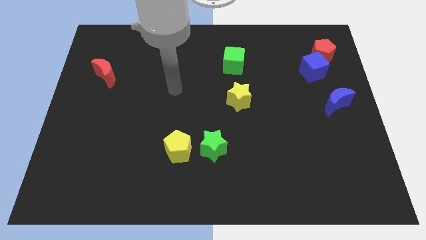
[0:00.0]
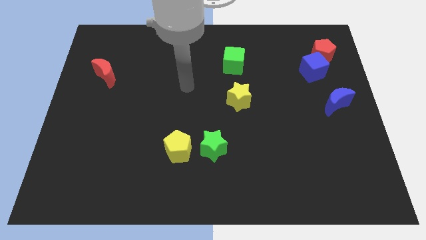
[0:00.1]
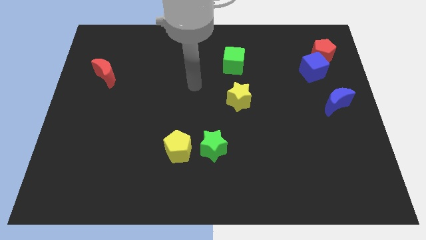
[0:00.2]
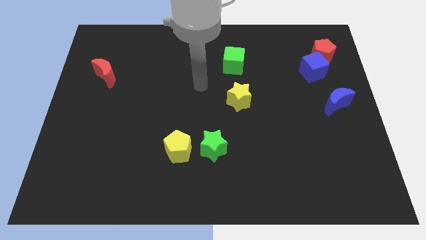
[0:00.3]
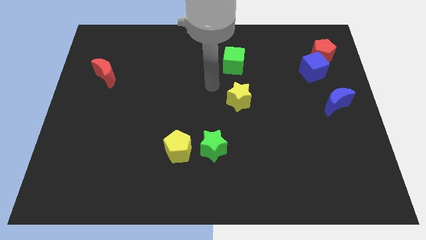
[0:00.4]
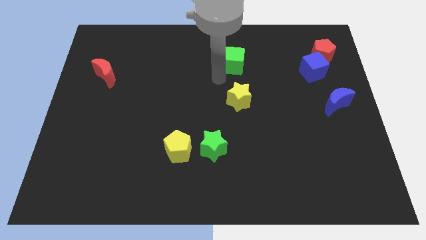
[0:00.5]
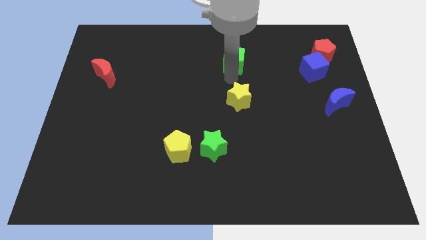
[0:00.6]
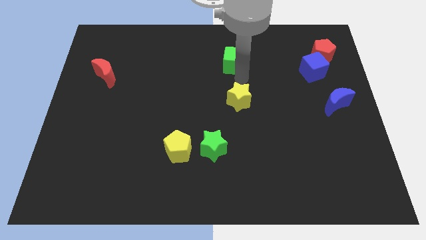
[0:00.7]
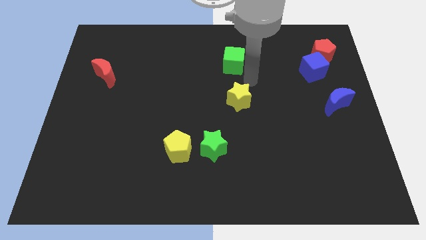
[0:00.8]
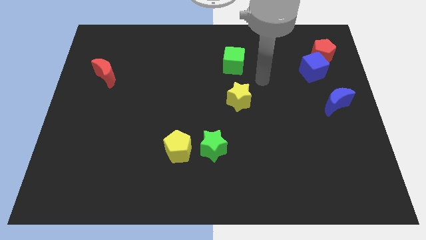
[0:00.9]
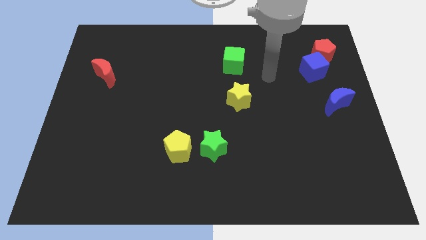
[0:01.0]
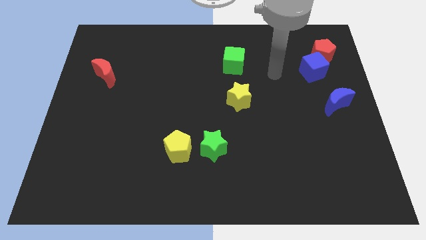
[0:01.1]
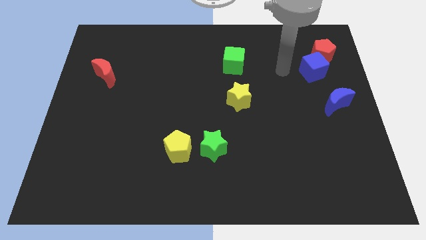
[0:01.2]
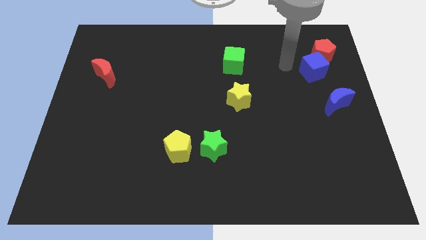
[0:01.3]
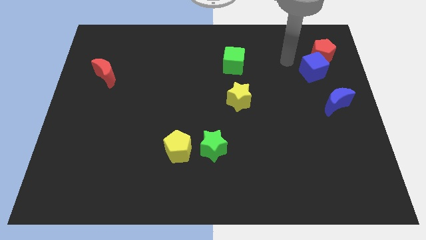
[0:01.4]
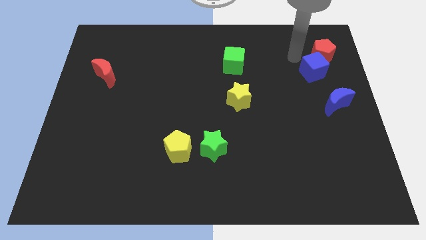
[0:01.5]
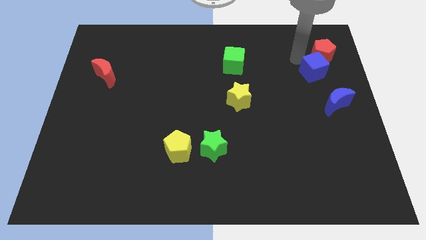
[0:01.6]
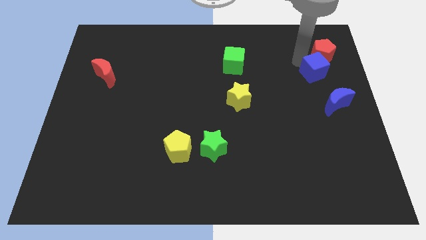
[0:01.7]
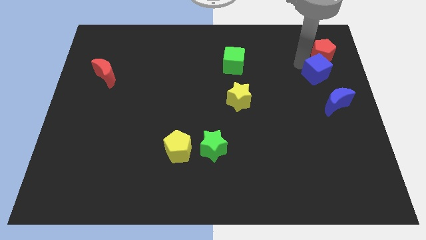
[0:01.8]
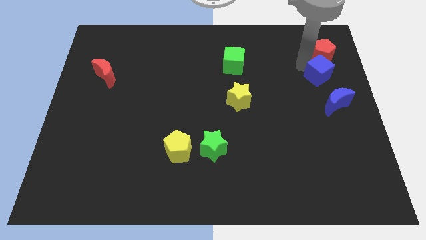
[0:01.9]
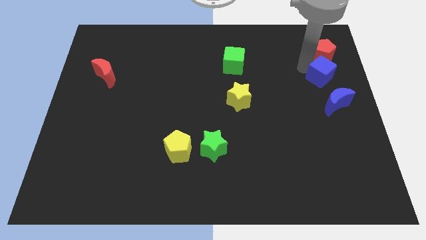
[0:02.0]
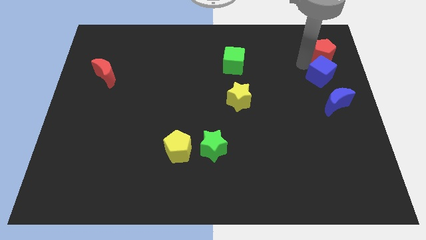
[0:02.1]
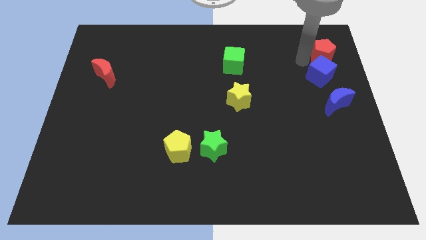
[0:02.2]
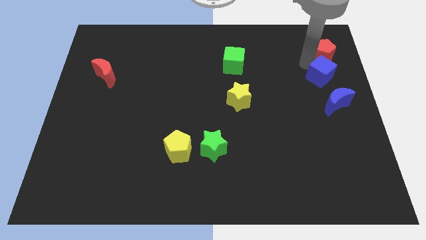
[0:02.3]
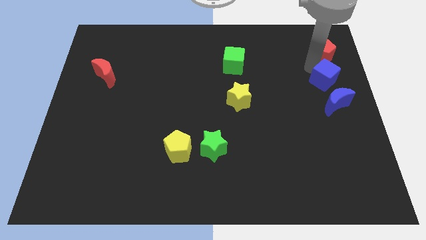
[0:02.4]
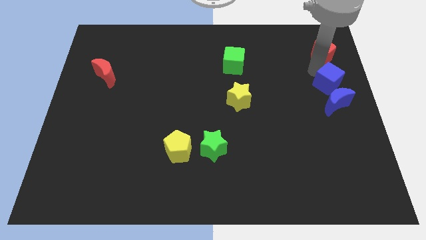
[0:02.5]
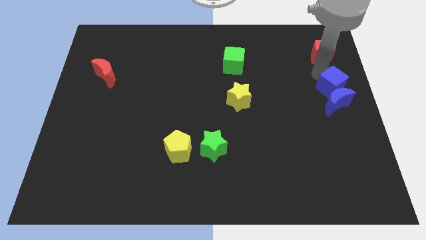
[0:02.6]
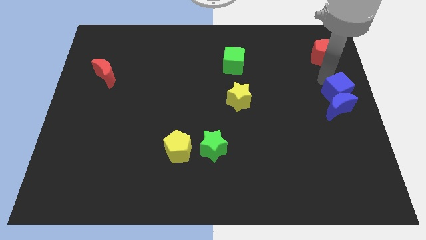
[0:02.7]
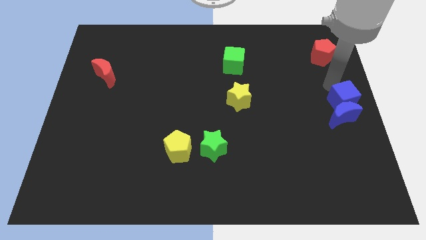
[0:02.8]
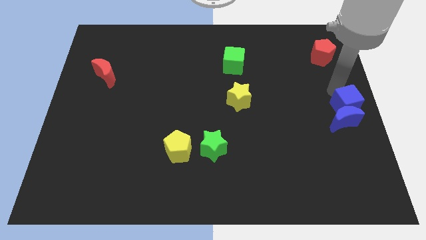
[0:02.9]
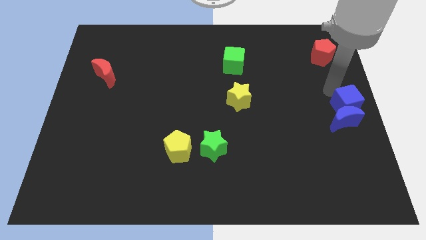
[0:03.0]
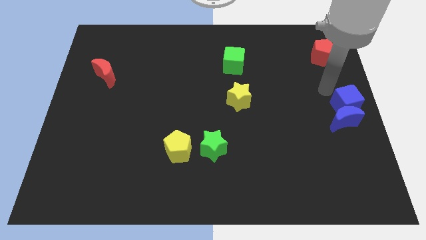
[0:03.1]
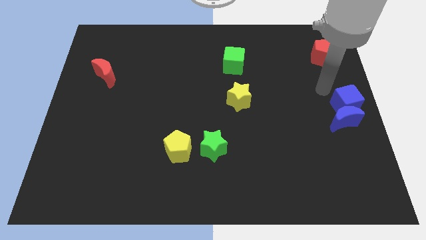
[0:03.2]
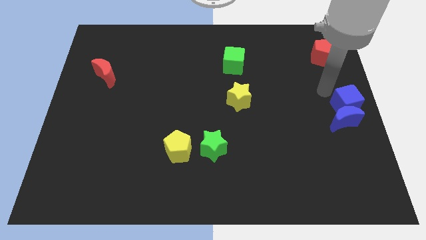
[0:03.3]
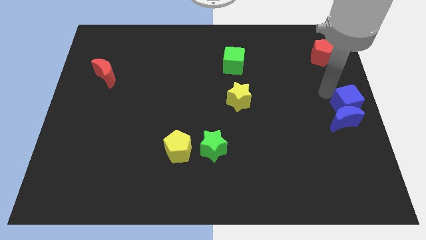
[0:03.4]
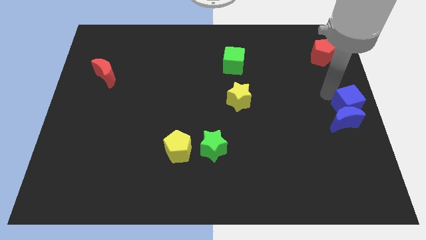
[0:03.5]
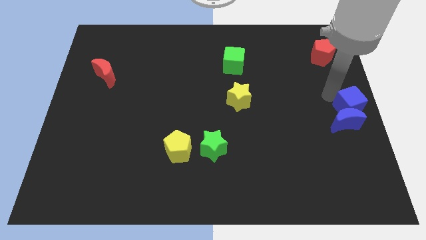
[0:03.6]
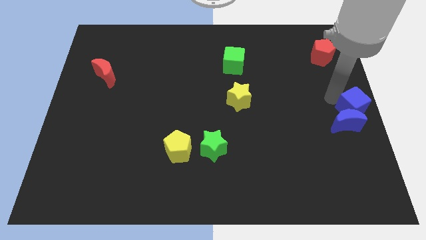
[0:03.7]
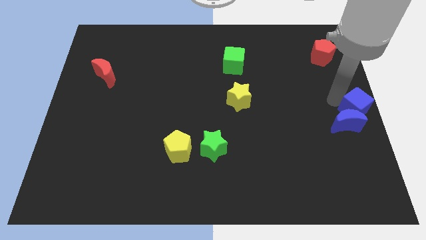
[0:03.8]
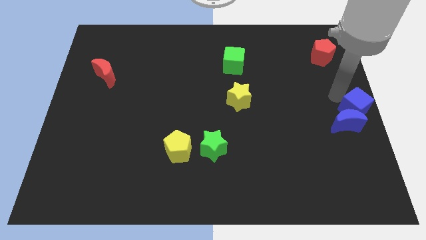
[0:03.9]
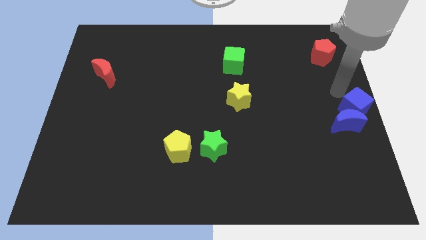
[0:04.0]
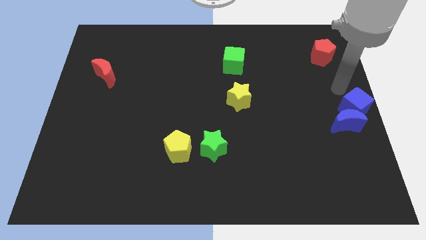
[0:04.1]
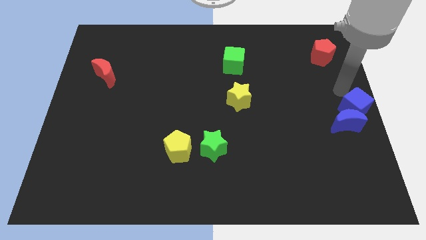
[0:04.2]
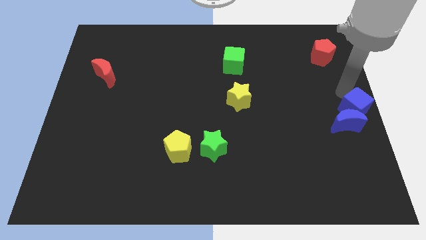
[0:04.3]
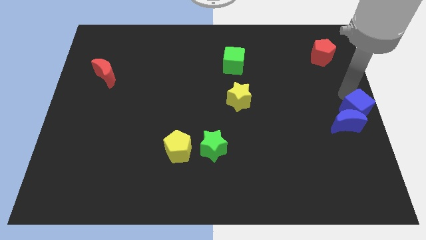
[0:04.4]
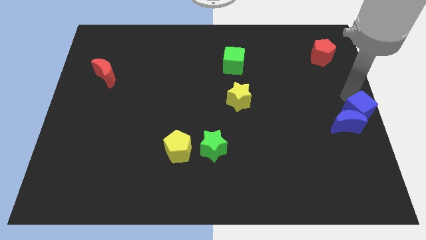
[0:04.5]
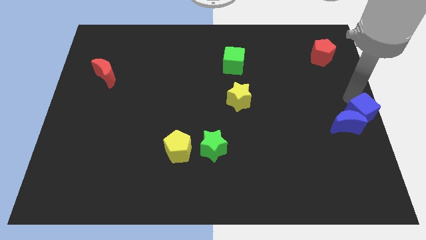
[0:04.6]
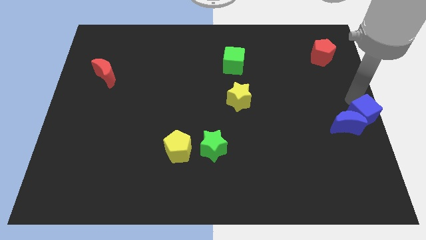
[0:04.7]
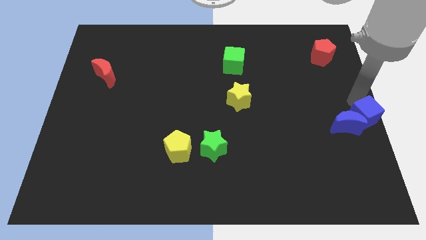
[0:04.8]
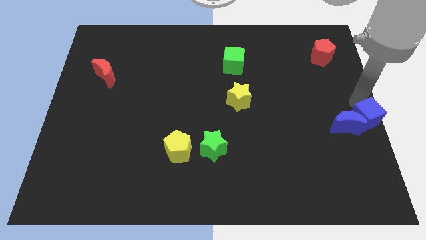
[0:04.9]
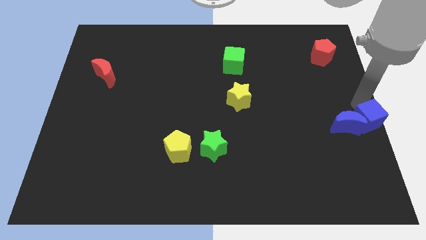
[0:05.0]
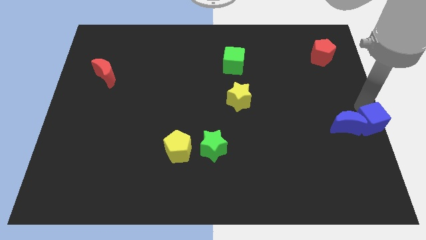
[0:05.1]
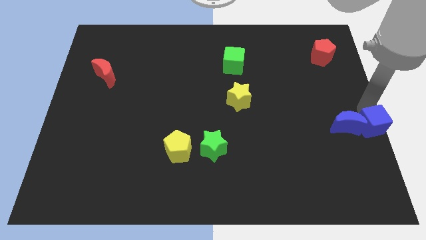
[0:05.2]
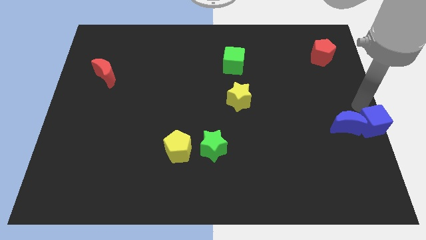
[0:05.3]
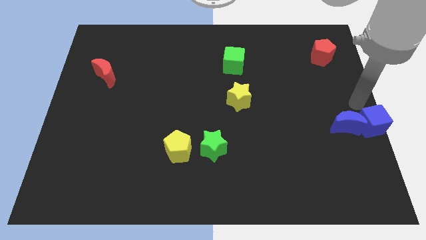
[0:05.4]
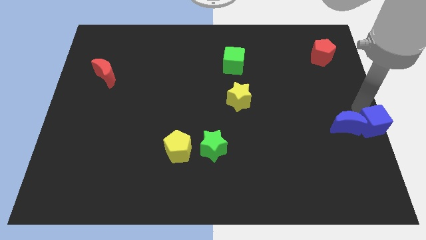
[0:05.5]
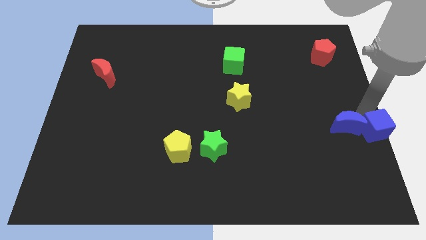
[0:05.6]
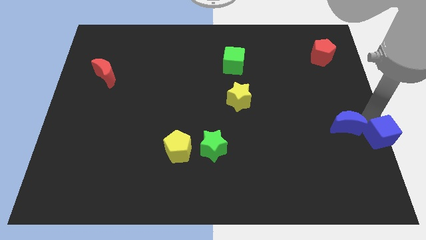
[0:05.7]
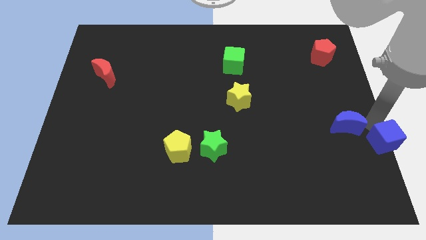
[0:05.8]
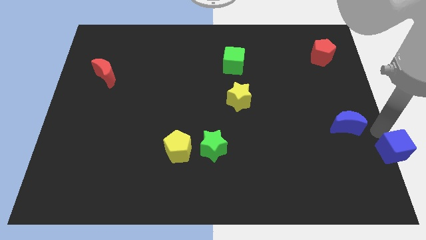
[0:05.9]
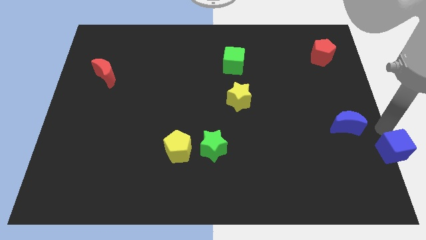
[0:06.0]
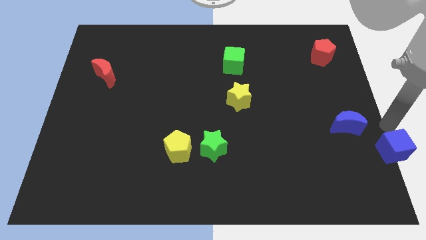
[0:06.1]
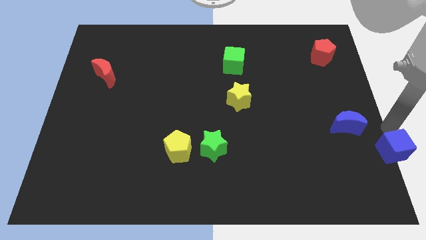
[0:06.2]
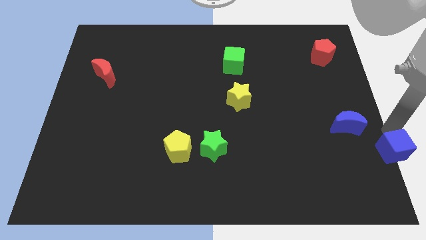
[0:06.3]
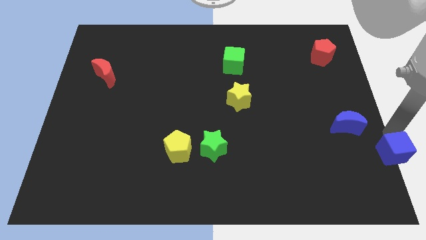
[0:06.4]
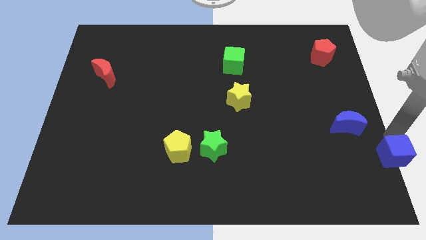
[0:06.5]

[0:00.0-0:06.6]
put the blue cube to the bottom right of the board

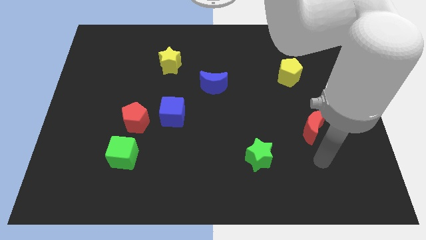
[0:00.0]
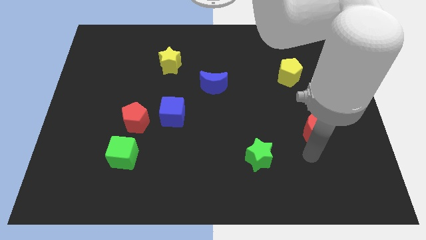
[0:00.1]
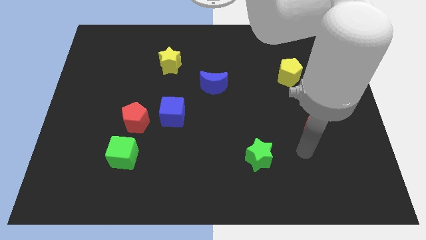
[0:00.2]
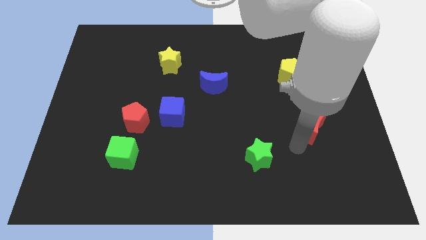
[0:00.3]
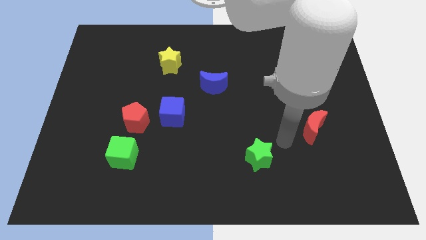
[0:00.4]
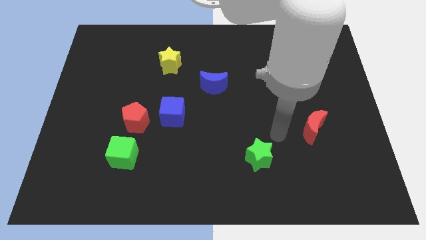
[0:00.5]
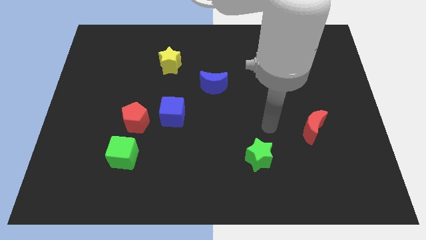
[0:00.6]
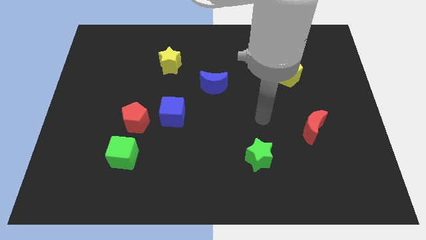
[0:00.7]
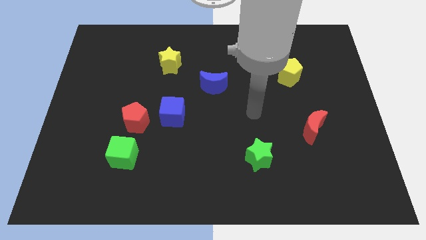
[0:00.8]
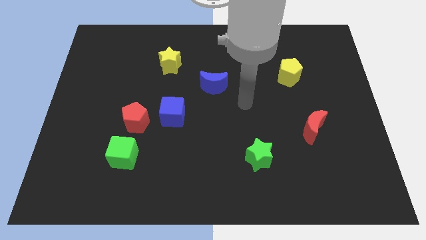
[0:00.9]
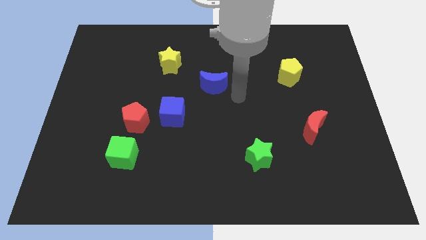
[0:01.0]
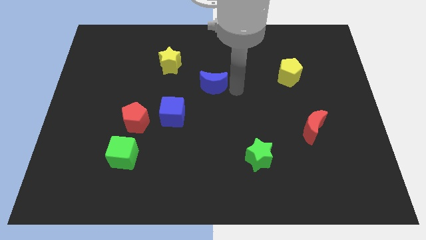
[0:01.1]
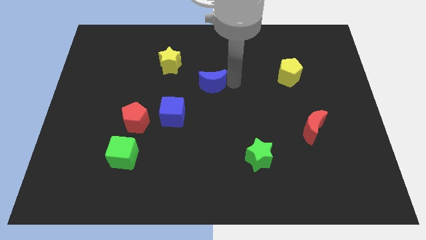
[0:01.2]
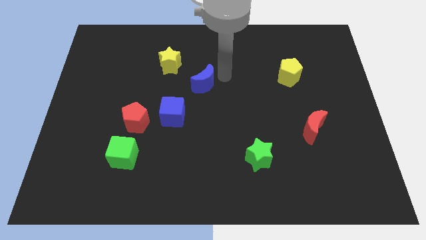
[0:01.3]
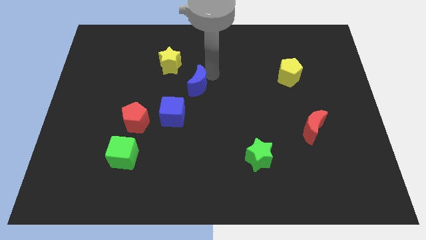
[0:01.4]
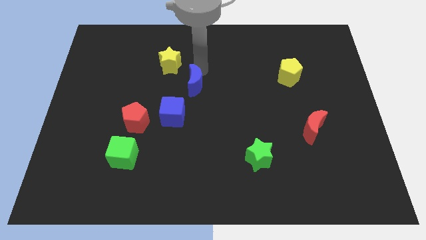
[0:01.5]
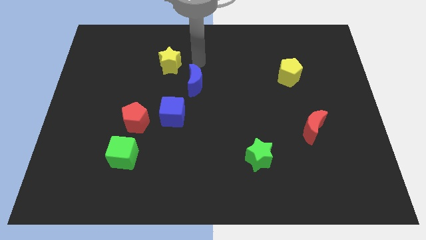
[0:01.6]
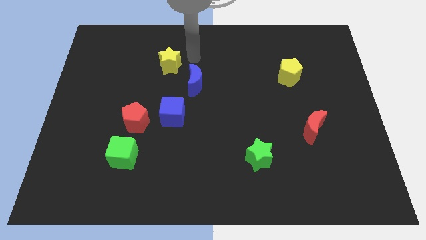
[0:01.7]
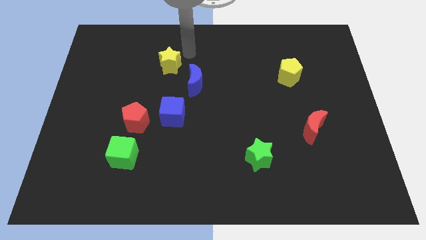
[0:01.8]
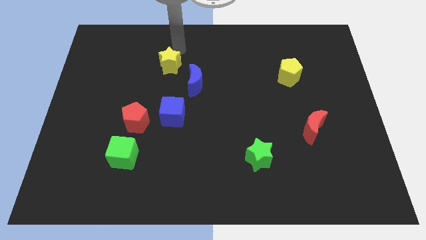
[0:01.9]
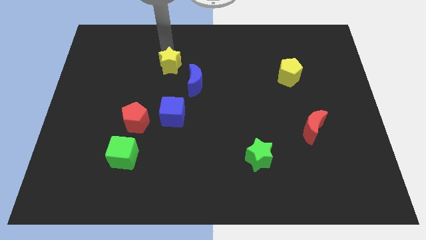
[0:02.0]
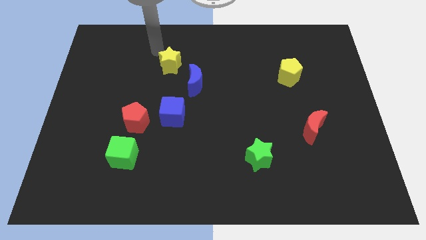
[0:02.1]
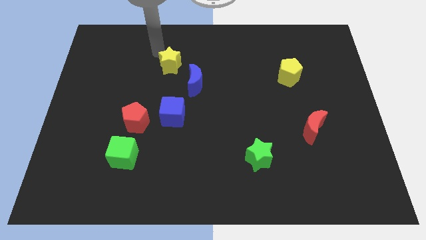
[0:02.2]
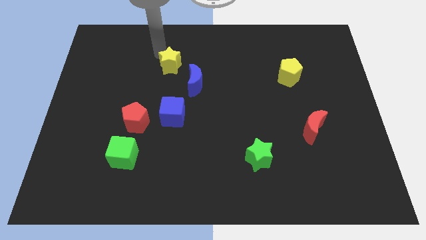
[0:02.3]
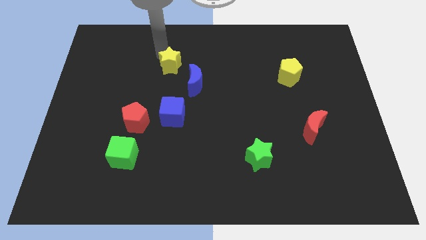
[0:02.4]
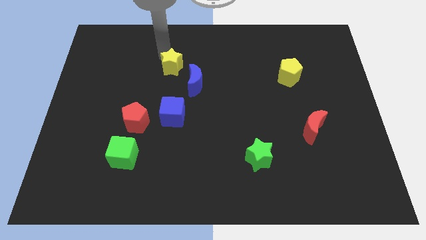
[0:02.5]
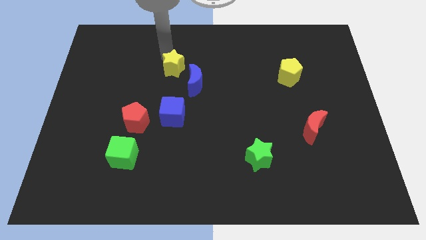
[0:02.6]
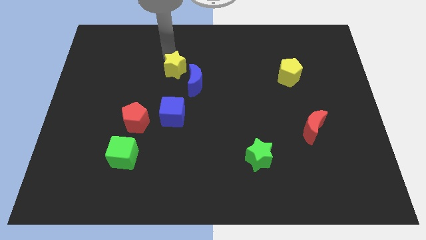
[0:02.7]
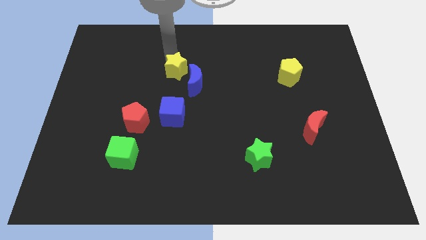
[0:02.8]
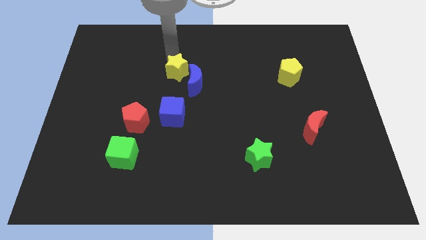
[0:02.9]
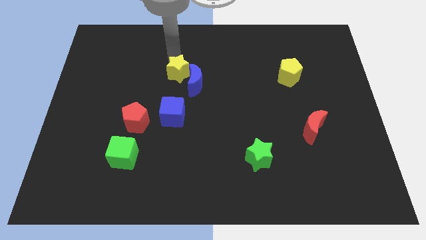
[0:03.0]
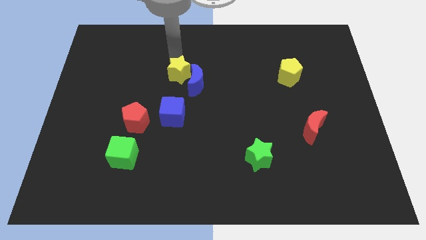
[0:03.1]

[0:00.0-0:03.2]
slide the yellow star to the center
